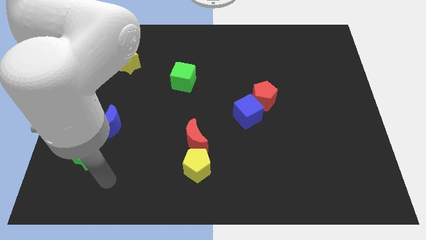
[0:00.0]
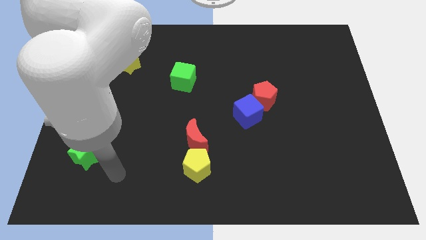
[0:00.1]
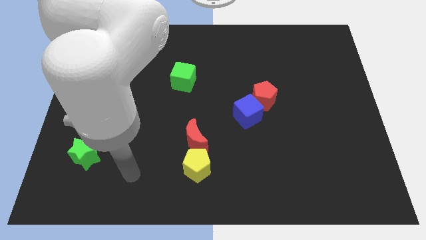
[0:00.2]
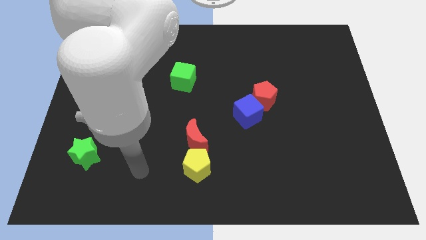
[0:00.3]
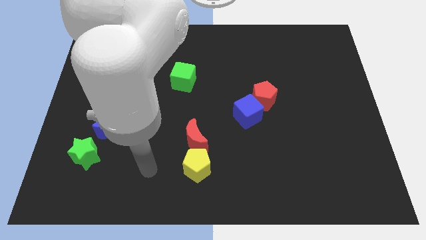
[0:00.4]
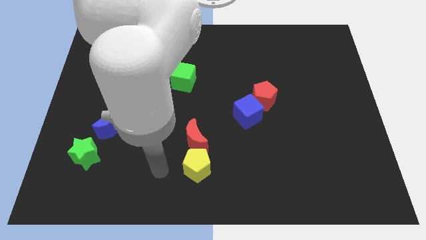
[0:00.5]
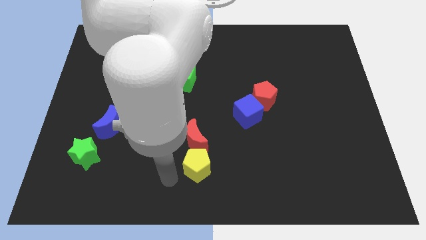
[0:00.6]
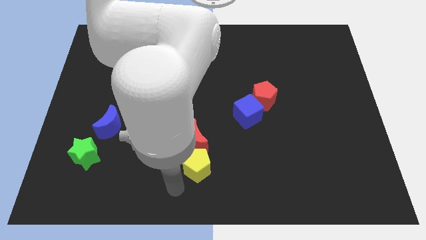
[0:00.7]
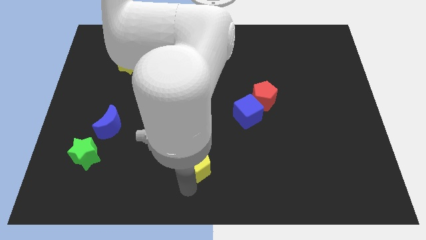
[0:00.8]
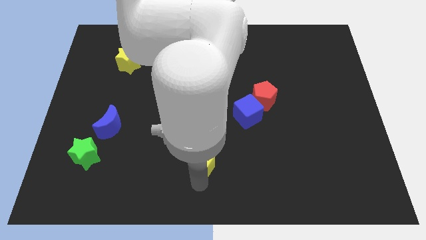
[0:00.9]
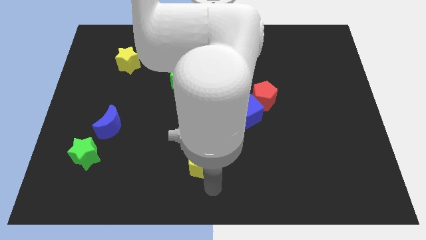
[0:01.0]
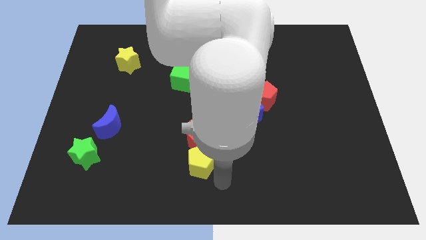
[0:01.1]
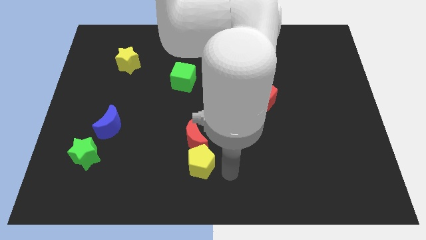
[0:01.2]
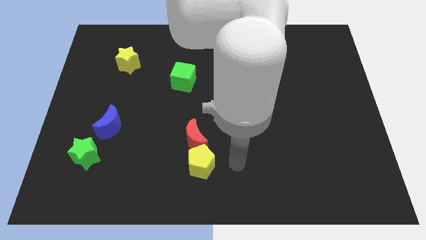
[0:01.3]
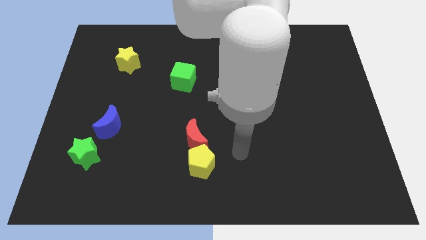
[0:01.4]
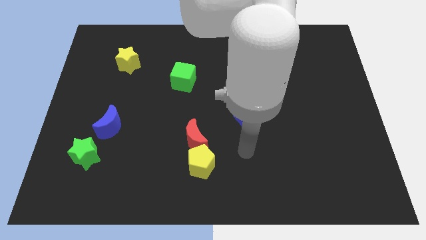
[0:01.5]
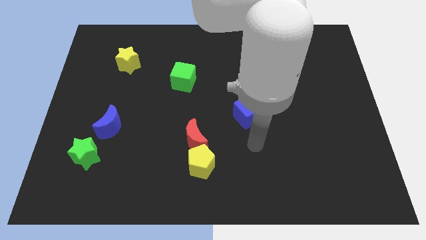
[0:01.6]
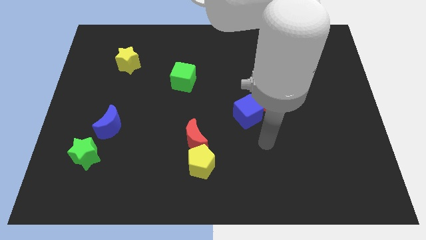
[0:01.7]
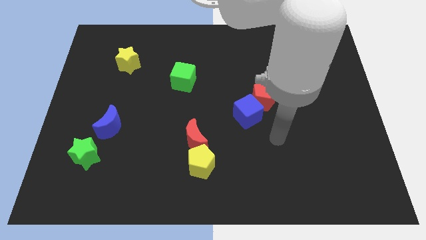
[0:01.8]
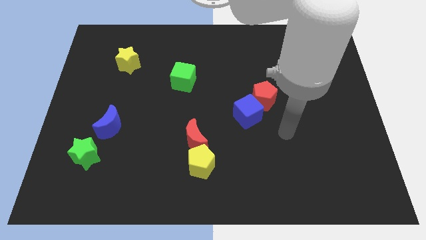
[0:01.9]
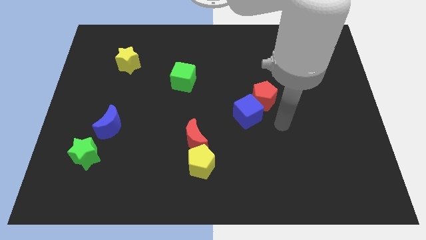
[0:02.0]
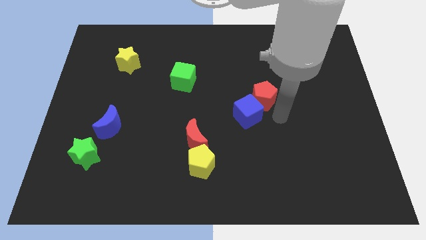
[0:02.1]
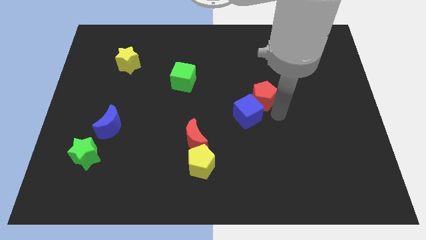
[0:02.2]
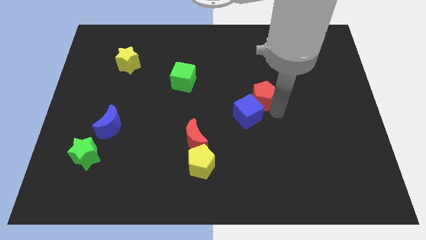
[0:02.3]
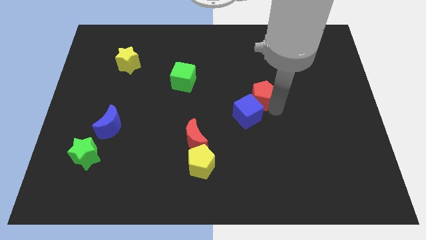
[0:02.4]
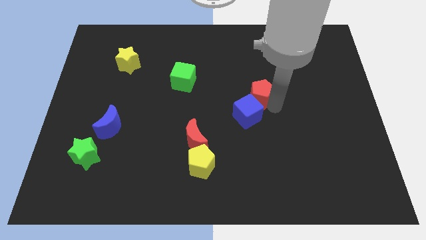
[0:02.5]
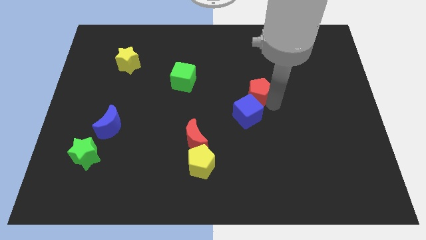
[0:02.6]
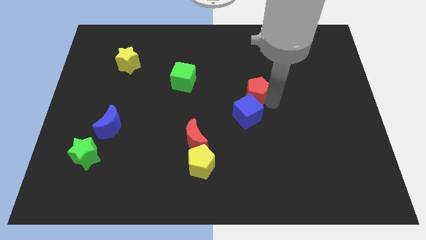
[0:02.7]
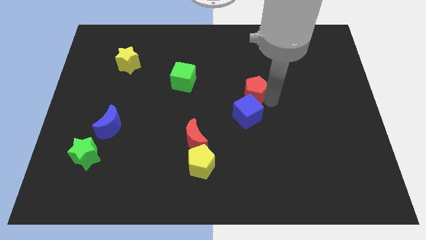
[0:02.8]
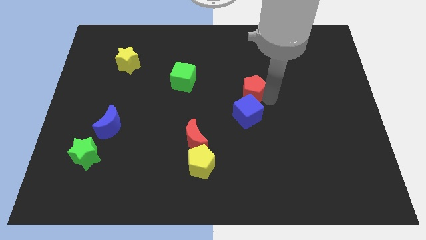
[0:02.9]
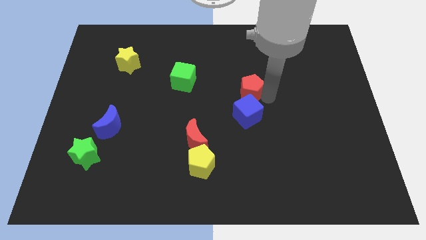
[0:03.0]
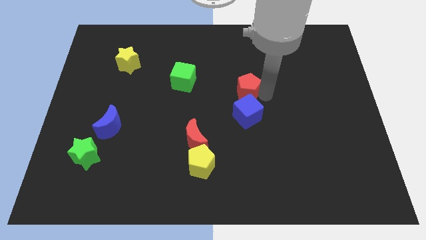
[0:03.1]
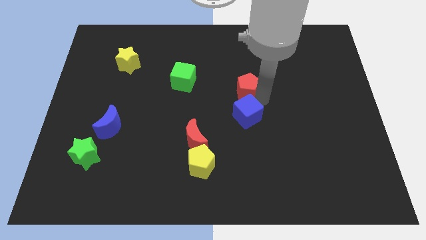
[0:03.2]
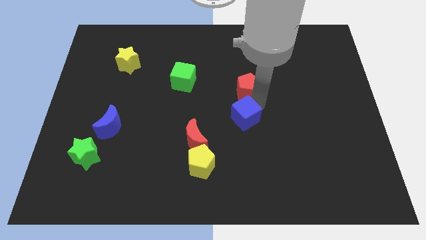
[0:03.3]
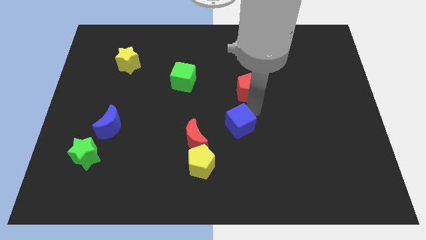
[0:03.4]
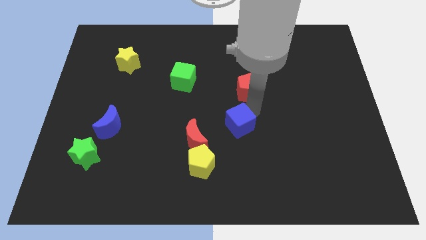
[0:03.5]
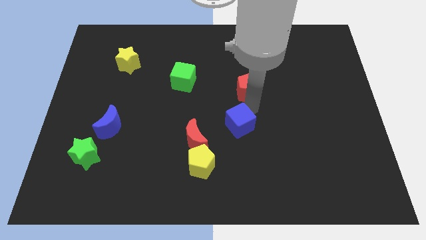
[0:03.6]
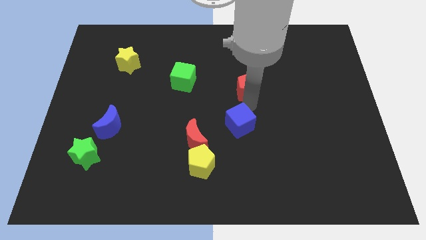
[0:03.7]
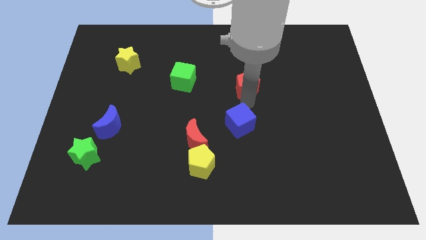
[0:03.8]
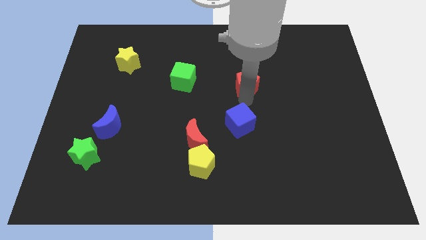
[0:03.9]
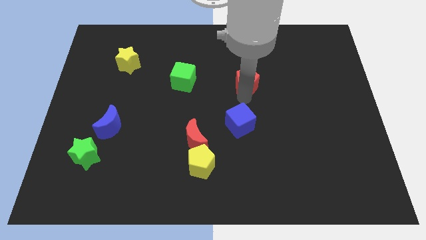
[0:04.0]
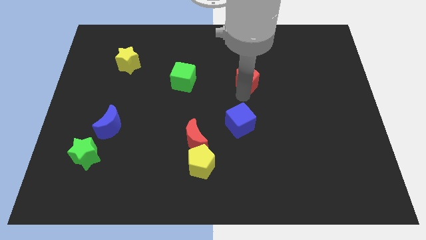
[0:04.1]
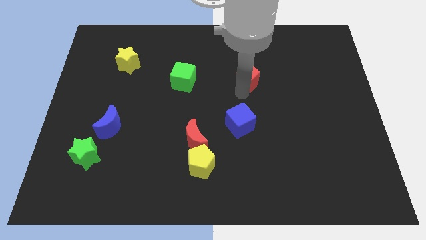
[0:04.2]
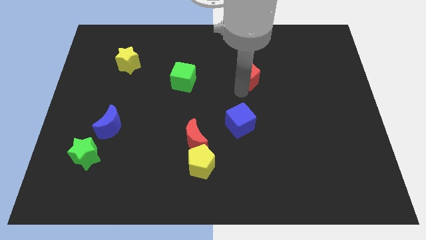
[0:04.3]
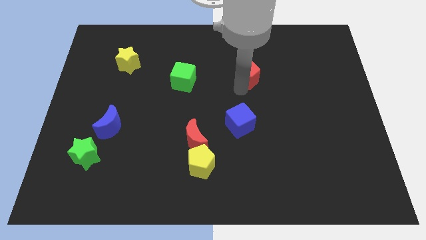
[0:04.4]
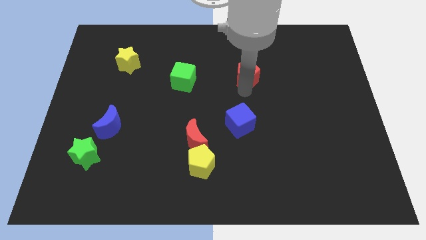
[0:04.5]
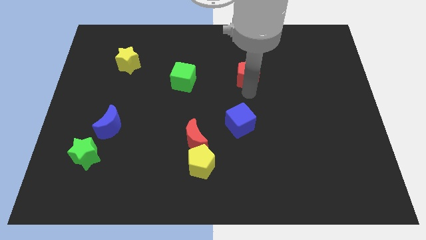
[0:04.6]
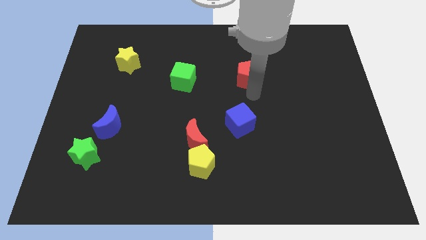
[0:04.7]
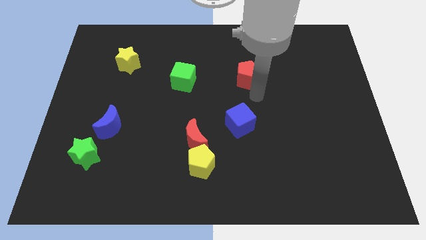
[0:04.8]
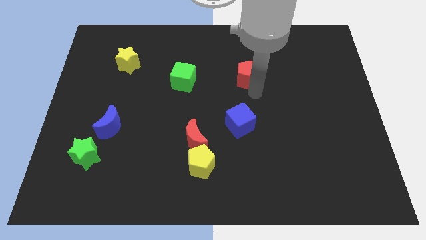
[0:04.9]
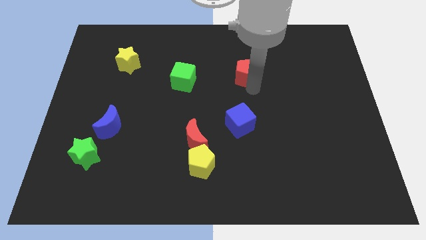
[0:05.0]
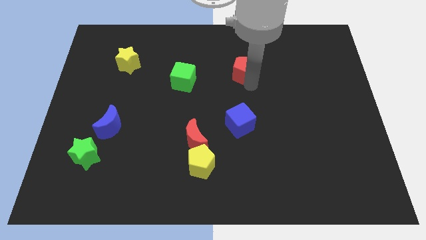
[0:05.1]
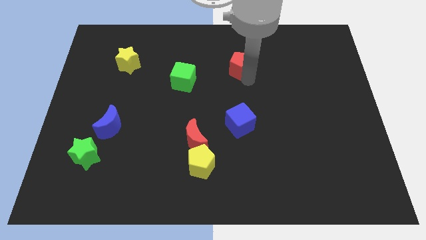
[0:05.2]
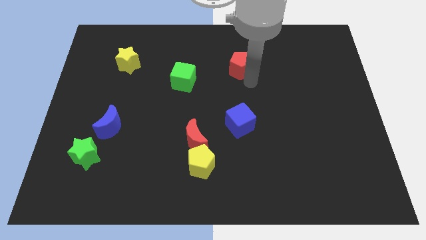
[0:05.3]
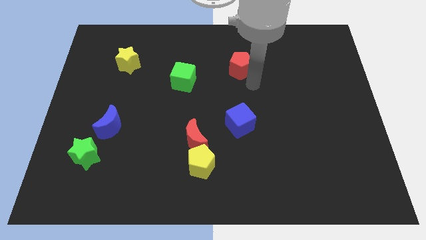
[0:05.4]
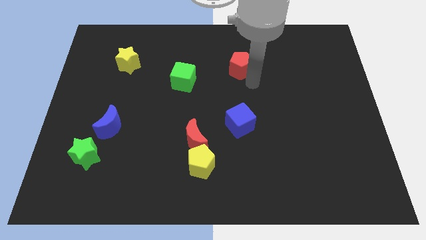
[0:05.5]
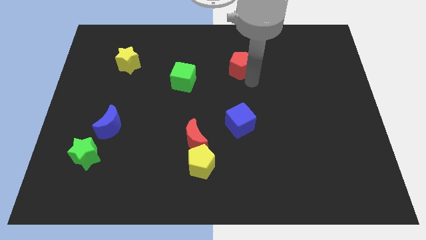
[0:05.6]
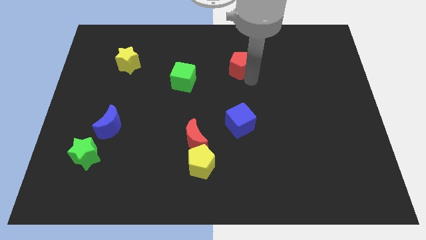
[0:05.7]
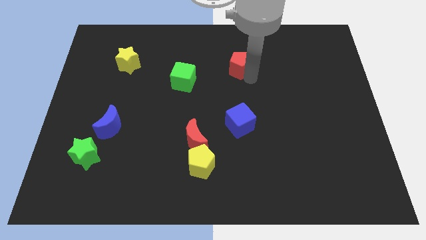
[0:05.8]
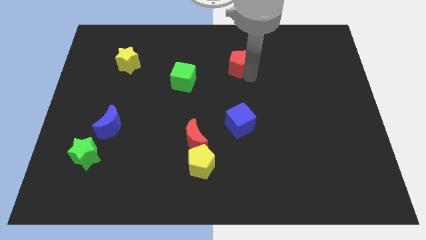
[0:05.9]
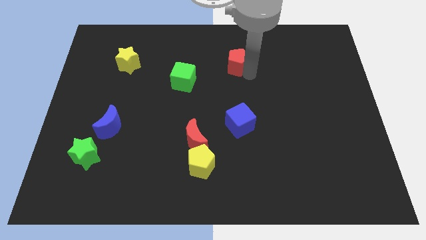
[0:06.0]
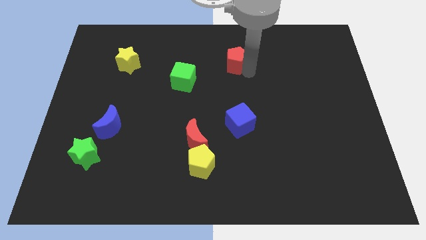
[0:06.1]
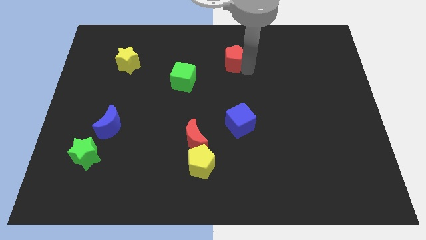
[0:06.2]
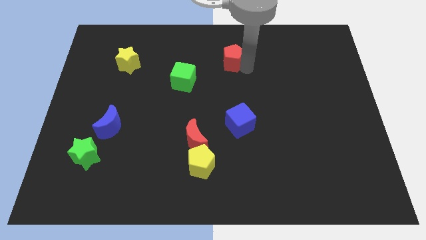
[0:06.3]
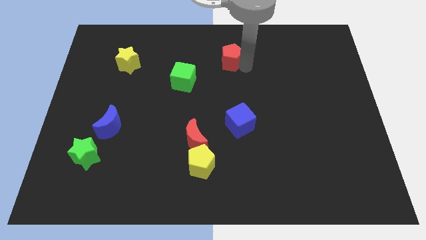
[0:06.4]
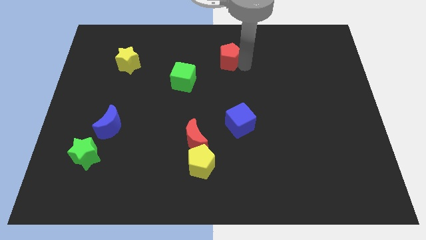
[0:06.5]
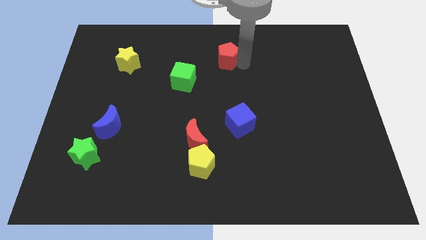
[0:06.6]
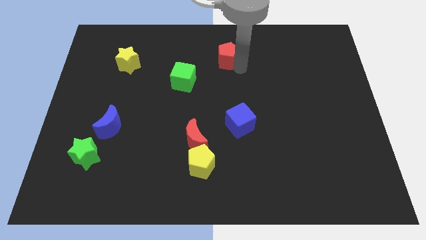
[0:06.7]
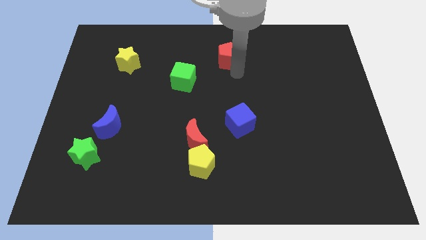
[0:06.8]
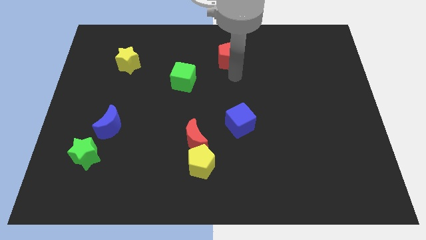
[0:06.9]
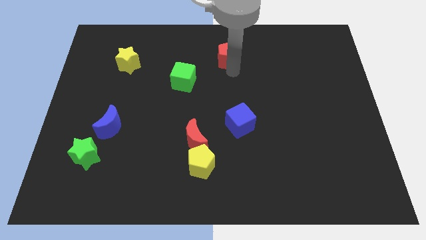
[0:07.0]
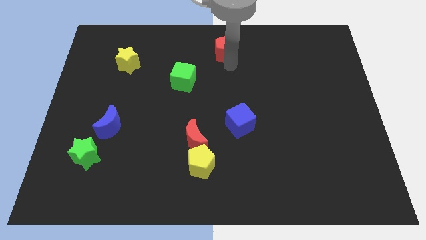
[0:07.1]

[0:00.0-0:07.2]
move the red pentagon to the top
